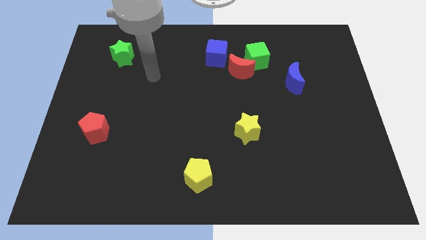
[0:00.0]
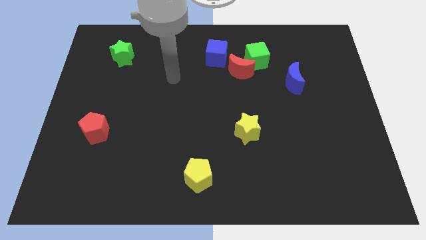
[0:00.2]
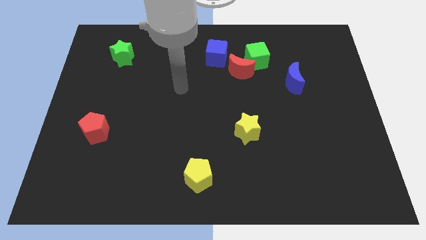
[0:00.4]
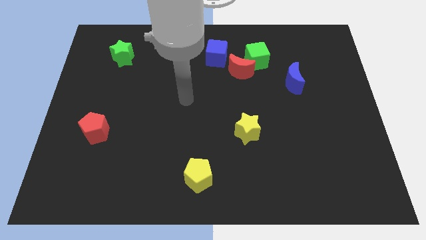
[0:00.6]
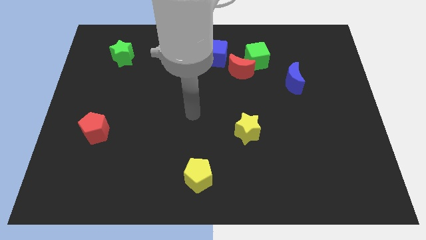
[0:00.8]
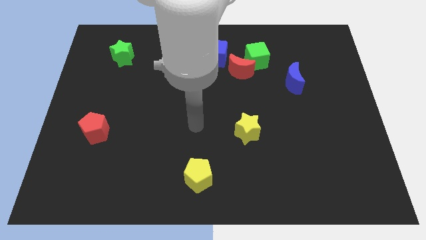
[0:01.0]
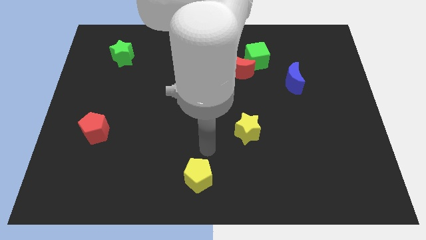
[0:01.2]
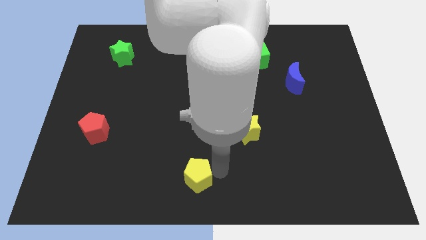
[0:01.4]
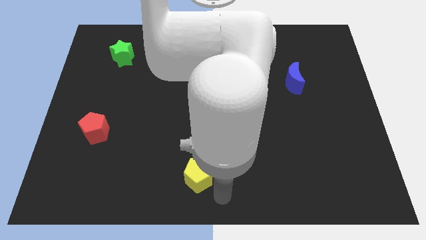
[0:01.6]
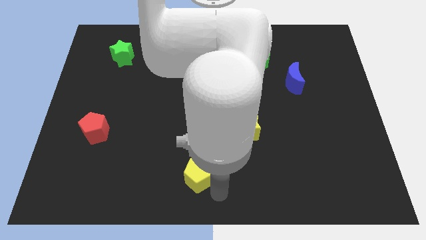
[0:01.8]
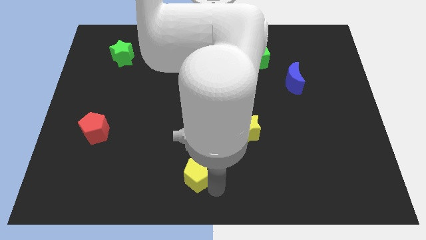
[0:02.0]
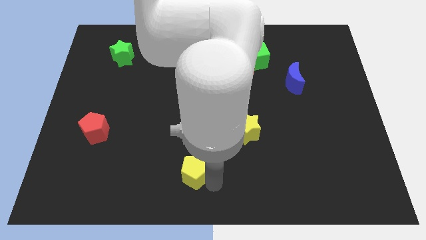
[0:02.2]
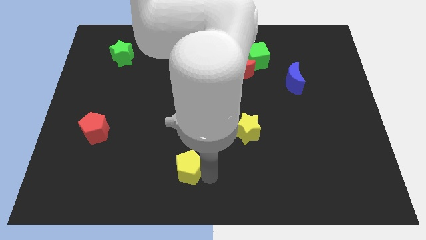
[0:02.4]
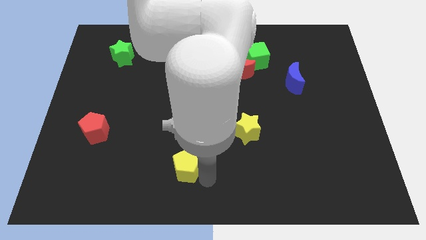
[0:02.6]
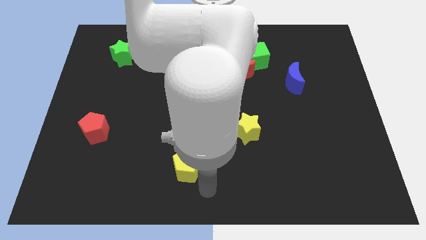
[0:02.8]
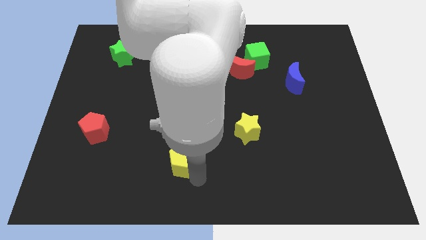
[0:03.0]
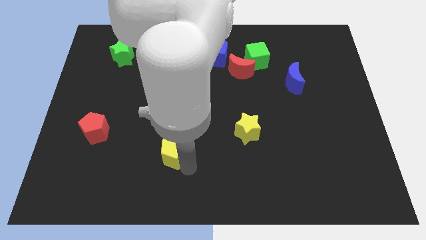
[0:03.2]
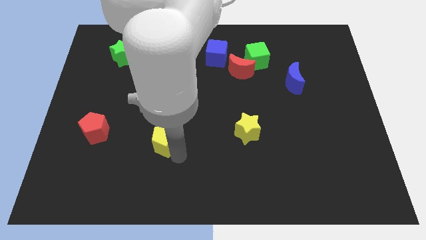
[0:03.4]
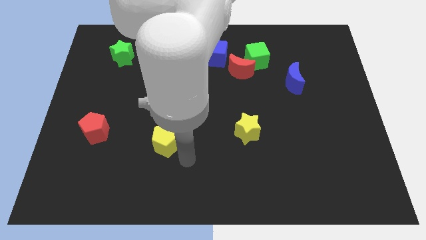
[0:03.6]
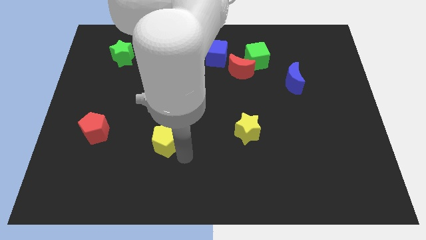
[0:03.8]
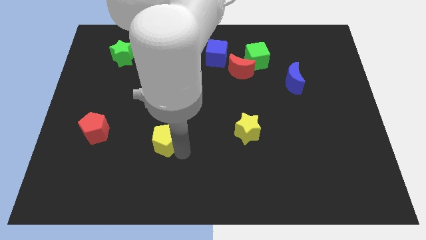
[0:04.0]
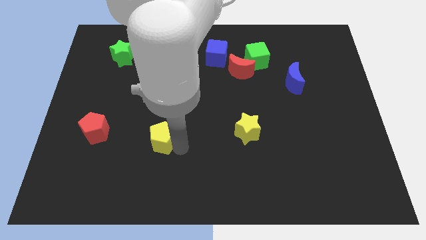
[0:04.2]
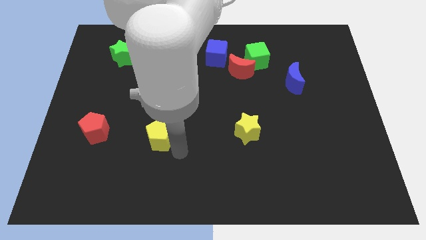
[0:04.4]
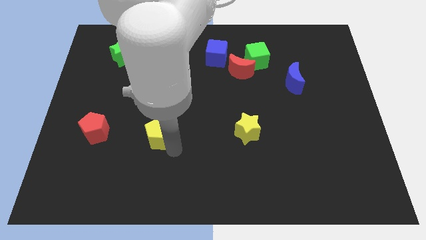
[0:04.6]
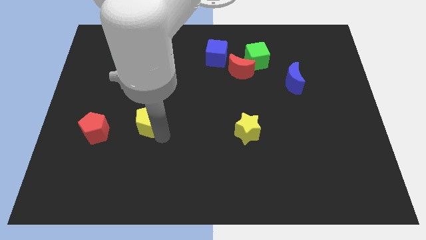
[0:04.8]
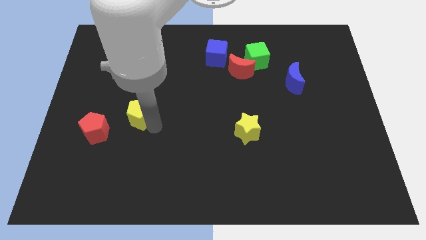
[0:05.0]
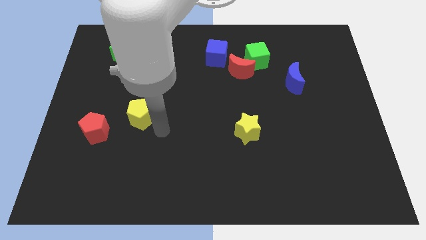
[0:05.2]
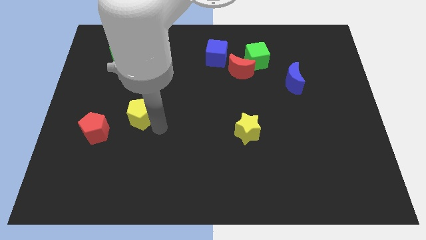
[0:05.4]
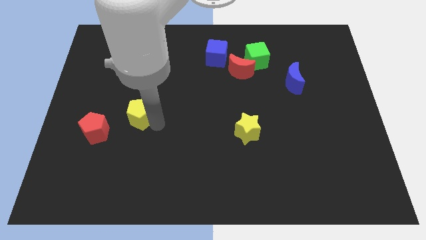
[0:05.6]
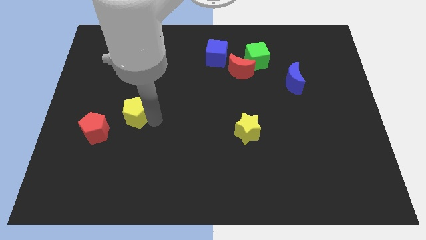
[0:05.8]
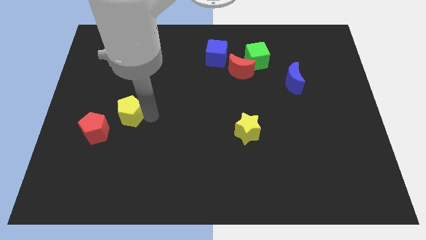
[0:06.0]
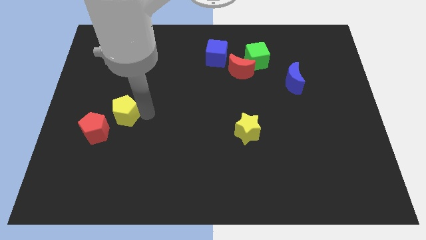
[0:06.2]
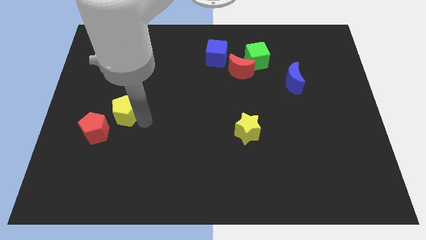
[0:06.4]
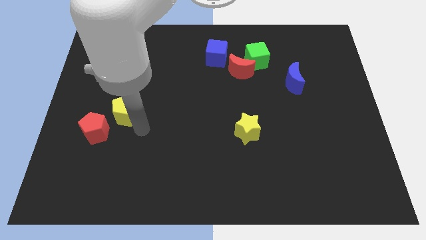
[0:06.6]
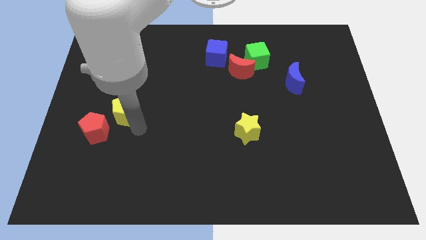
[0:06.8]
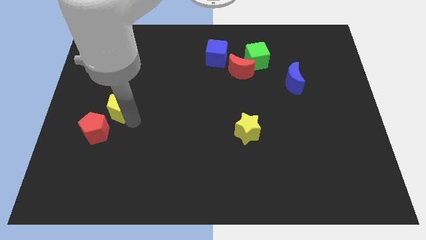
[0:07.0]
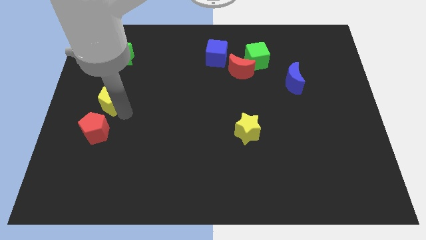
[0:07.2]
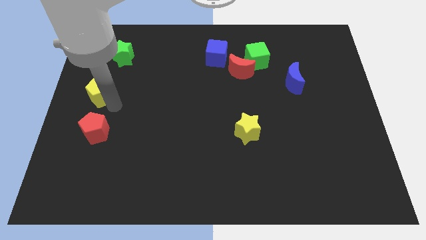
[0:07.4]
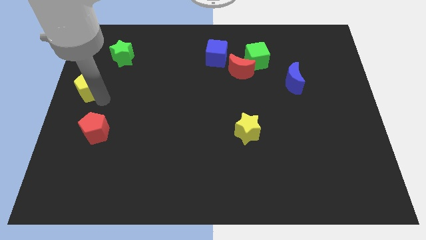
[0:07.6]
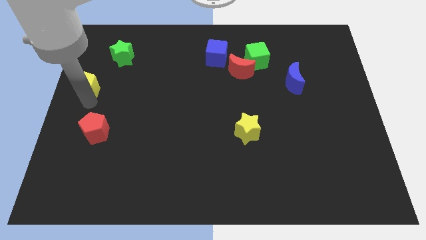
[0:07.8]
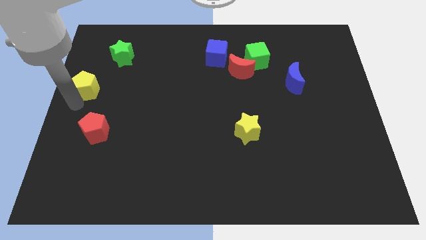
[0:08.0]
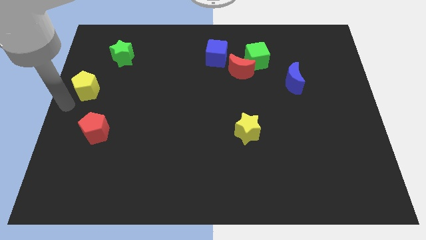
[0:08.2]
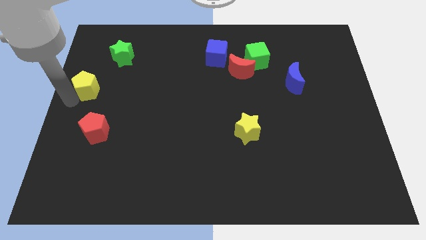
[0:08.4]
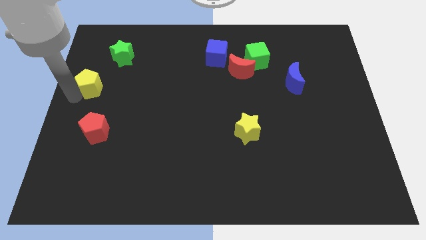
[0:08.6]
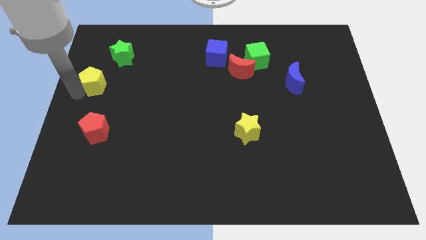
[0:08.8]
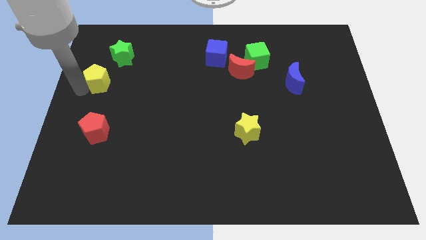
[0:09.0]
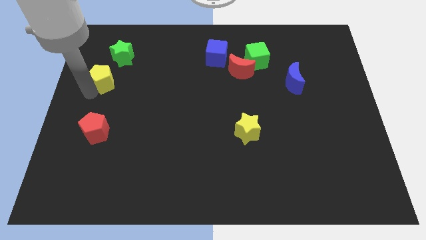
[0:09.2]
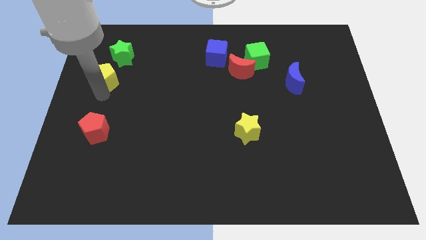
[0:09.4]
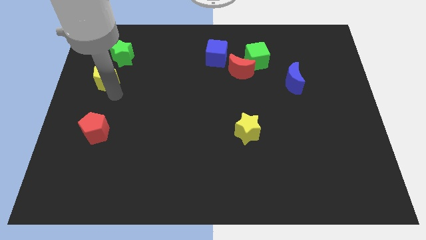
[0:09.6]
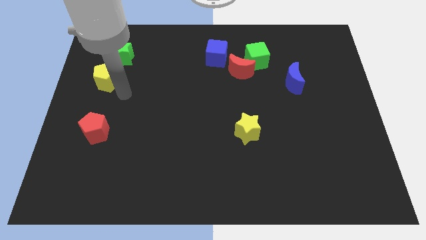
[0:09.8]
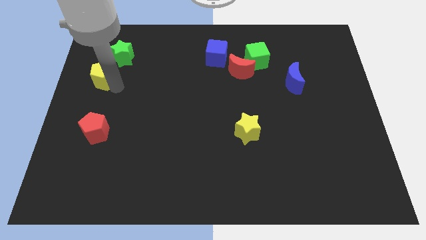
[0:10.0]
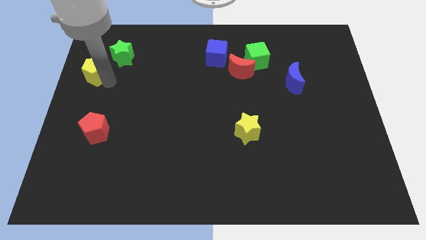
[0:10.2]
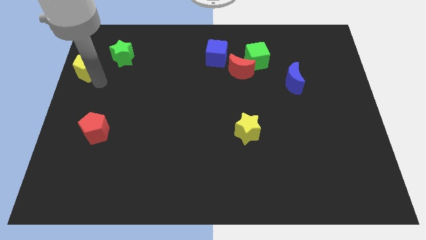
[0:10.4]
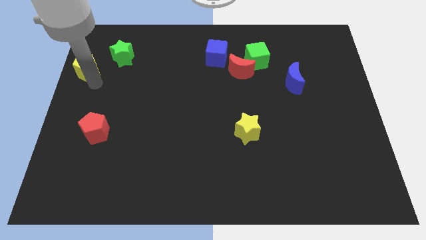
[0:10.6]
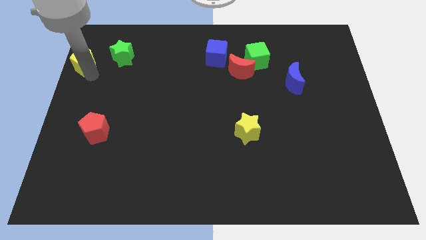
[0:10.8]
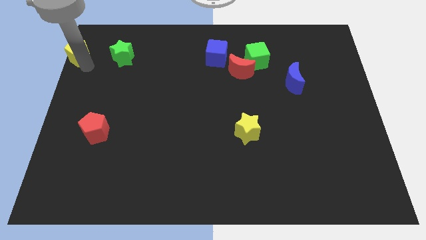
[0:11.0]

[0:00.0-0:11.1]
move the yellow pentagon to the upper left corner

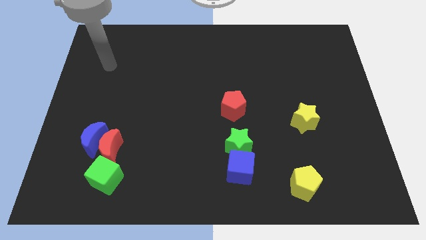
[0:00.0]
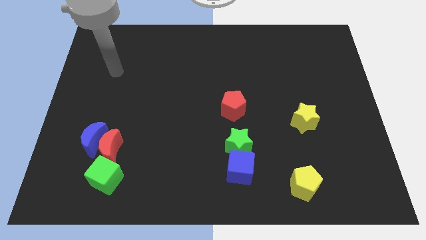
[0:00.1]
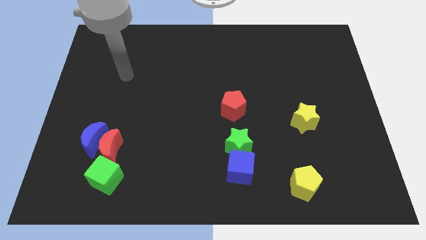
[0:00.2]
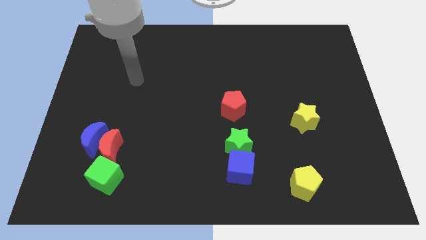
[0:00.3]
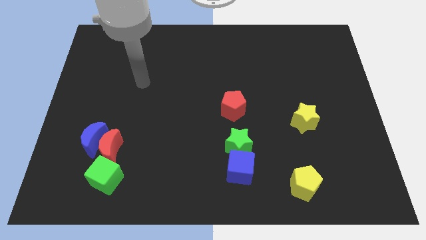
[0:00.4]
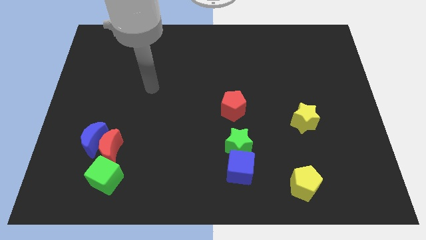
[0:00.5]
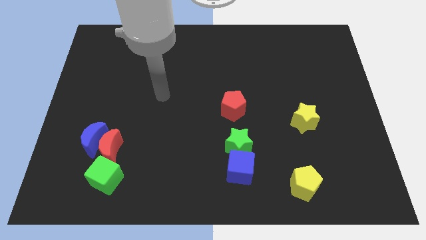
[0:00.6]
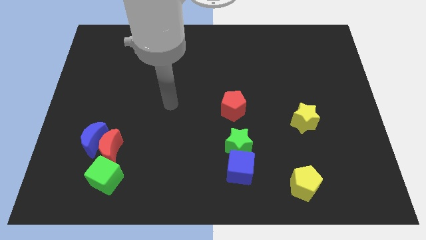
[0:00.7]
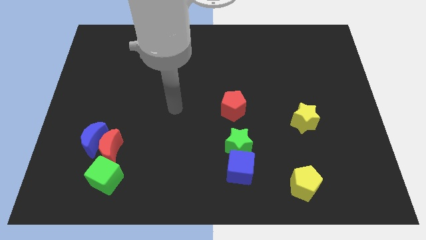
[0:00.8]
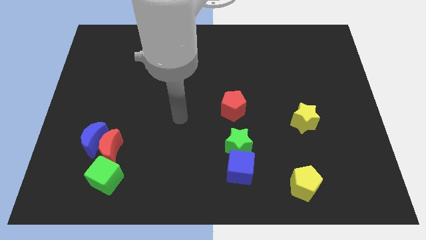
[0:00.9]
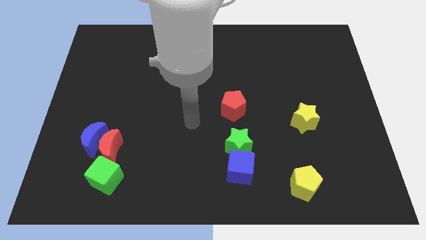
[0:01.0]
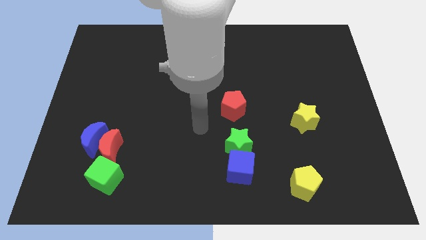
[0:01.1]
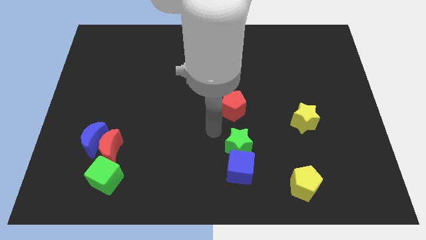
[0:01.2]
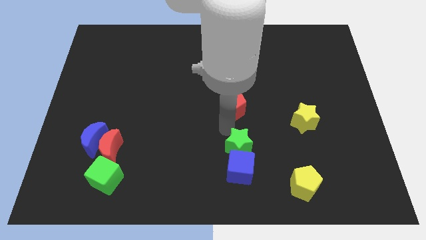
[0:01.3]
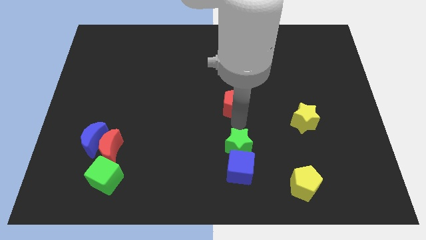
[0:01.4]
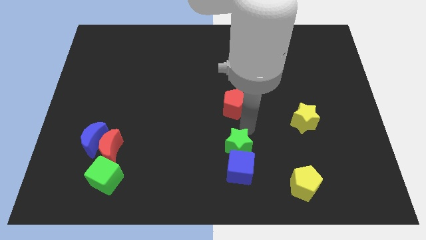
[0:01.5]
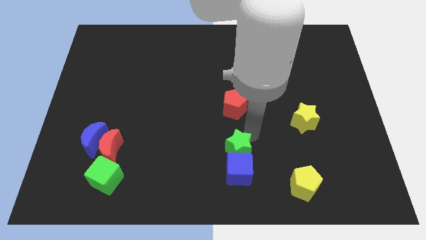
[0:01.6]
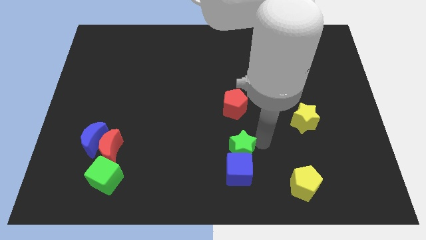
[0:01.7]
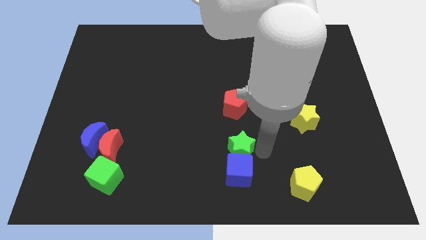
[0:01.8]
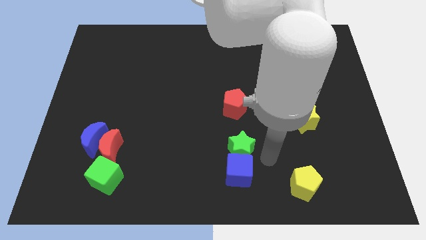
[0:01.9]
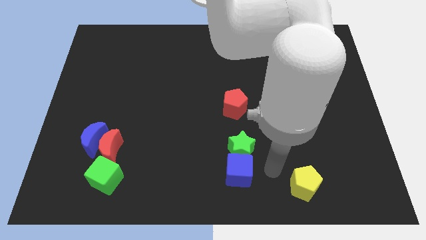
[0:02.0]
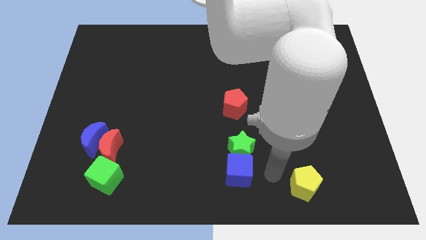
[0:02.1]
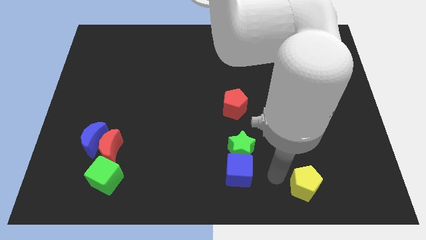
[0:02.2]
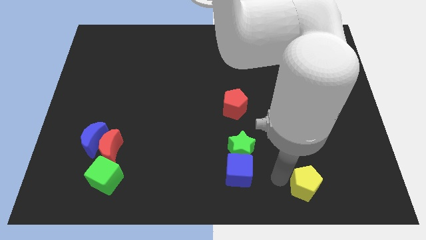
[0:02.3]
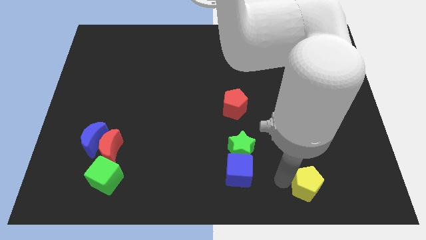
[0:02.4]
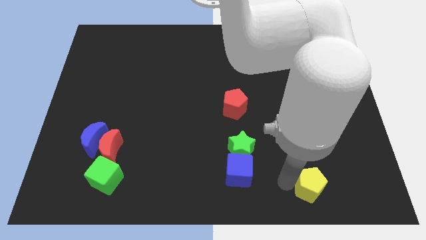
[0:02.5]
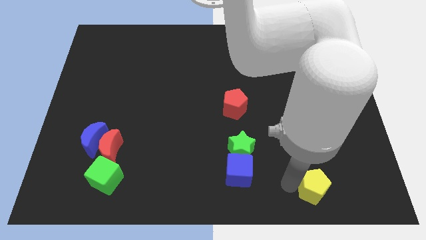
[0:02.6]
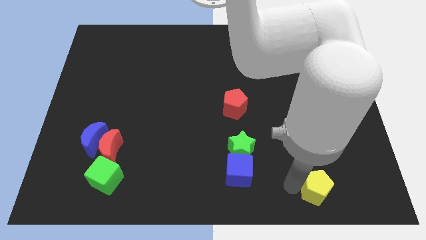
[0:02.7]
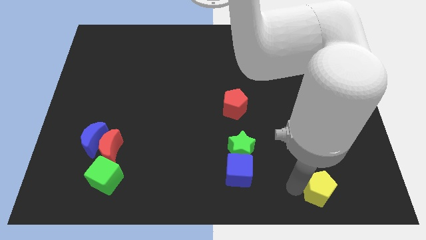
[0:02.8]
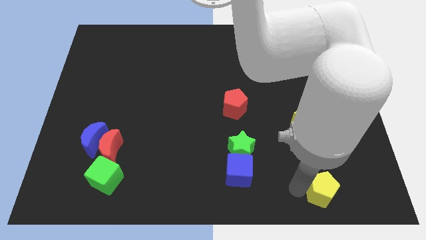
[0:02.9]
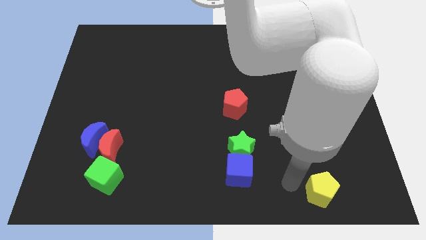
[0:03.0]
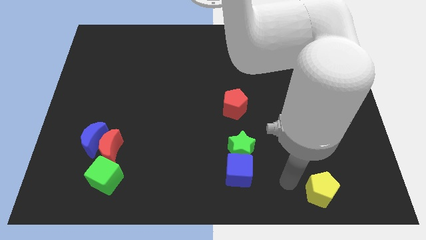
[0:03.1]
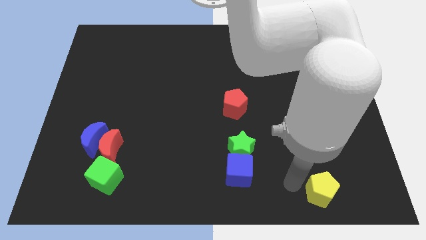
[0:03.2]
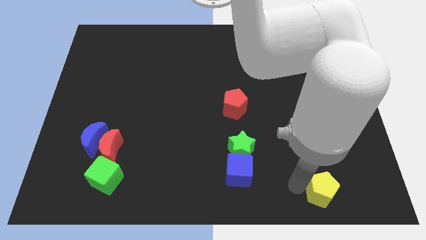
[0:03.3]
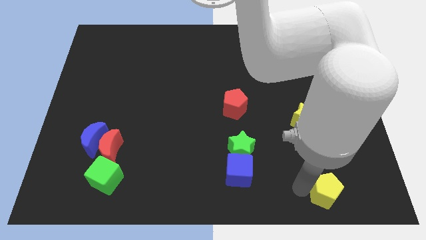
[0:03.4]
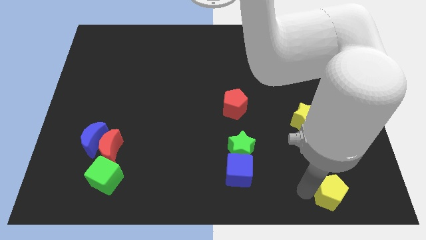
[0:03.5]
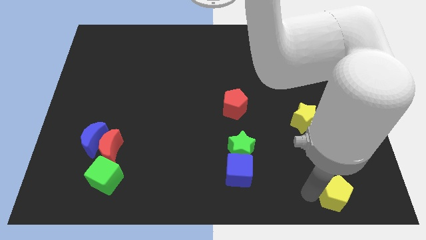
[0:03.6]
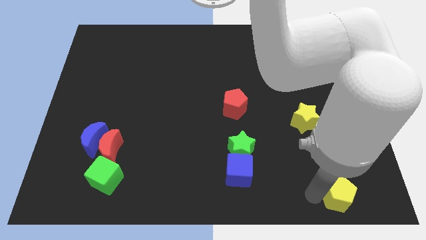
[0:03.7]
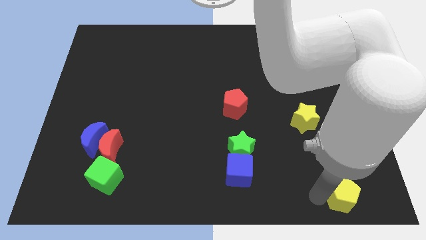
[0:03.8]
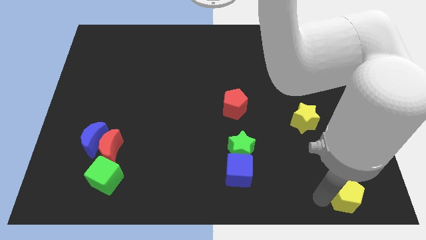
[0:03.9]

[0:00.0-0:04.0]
move the yellow pentagon to the bottom right corner
